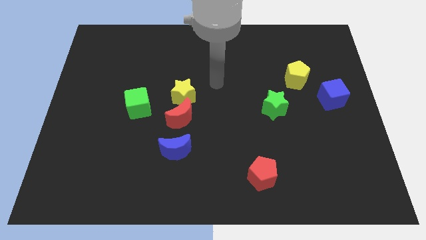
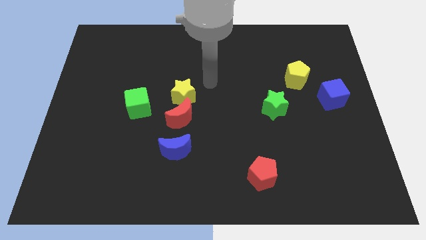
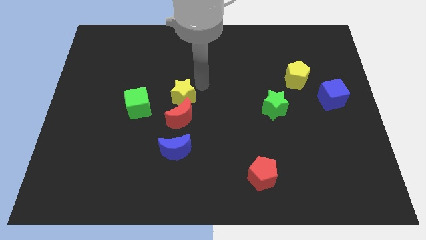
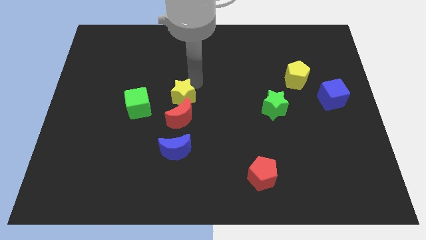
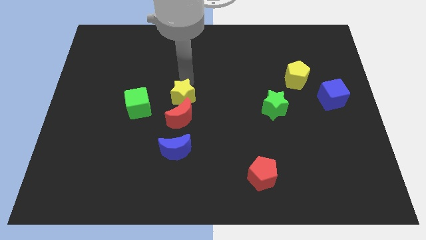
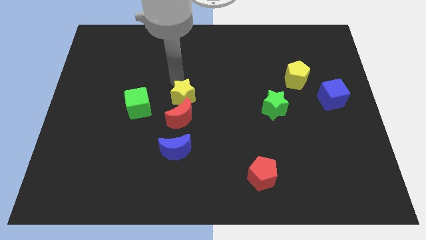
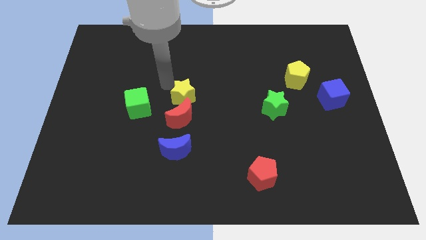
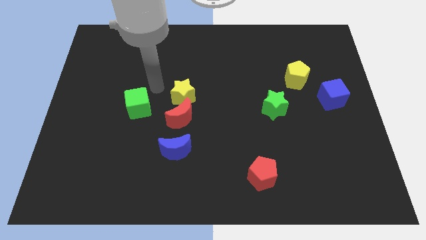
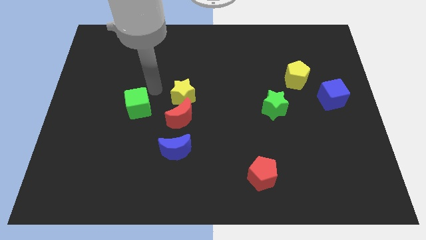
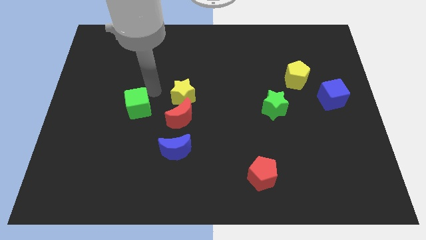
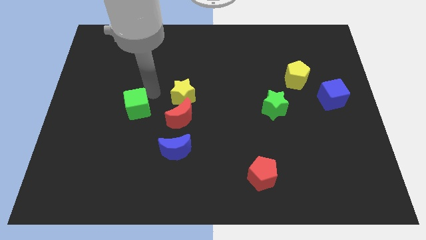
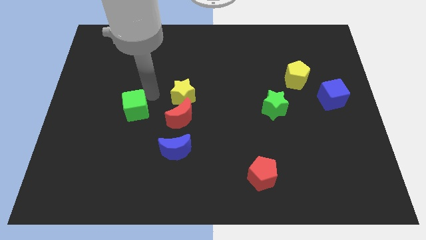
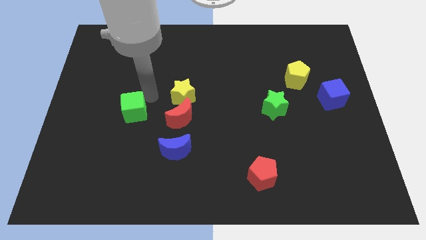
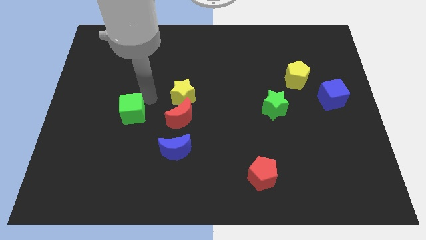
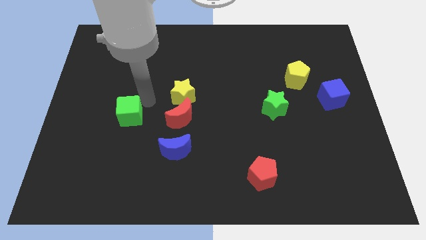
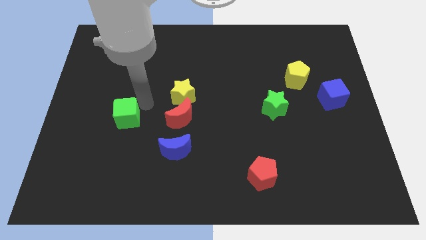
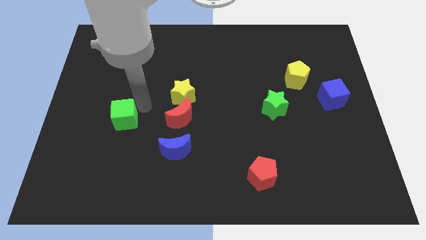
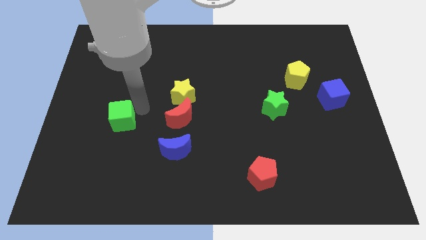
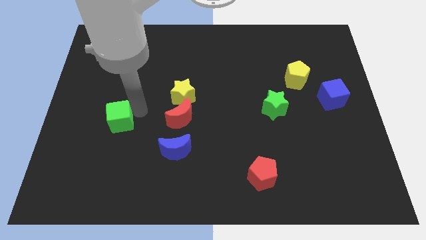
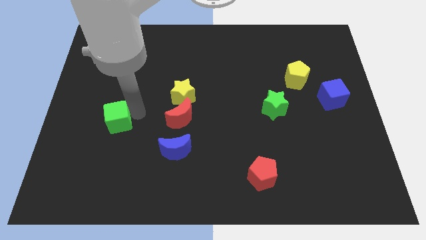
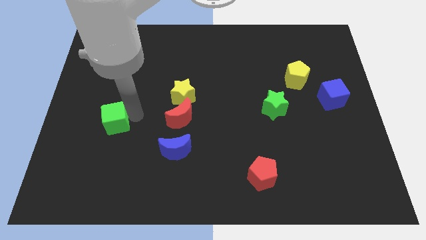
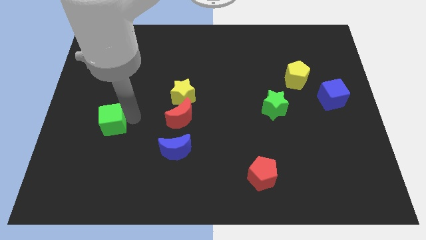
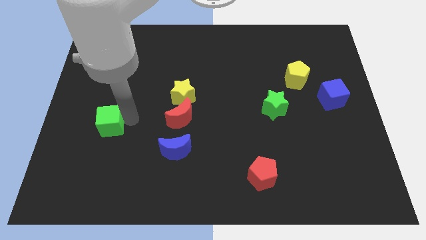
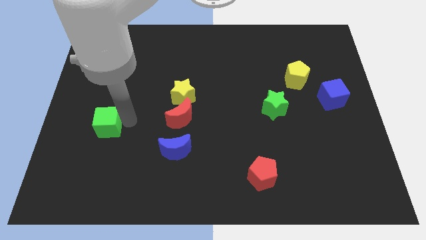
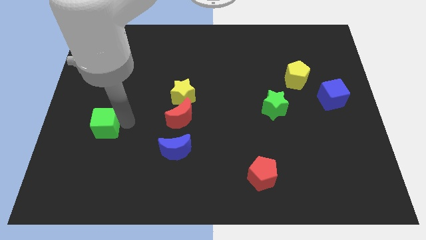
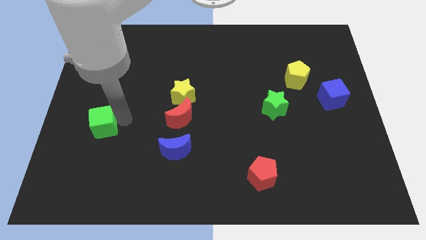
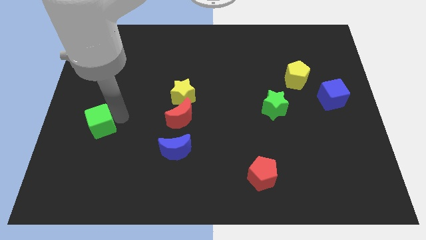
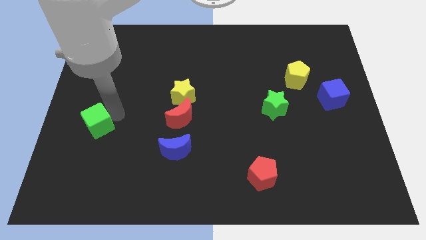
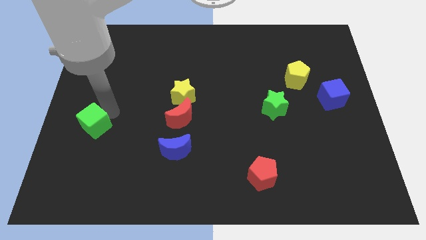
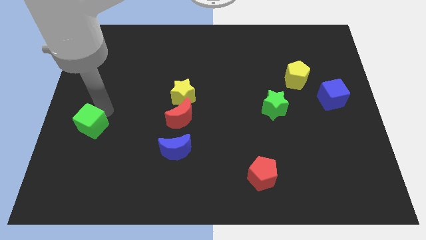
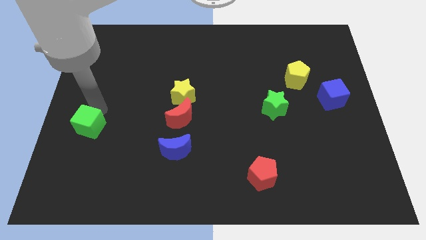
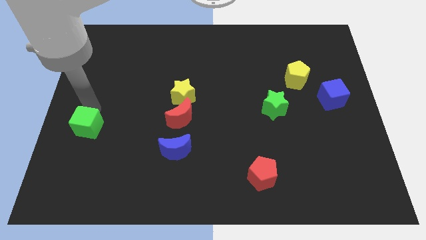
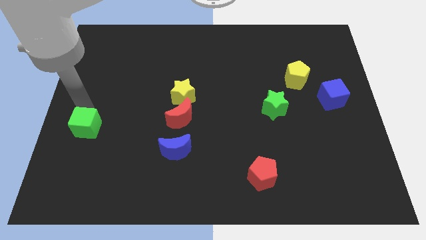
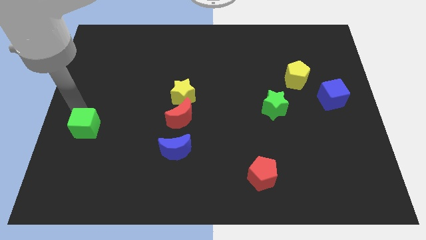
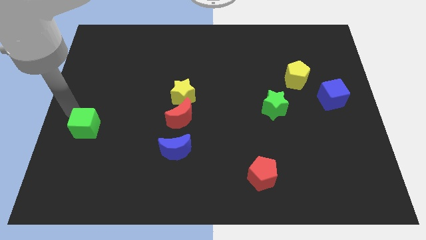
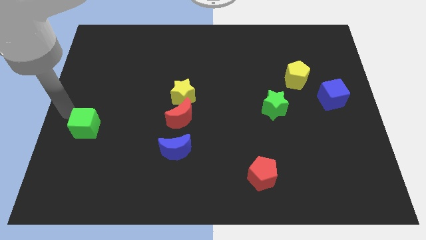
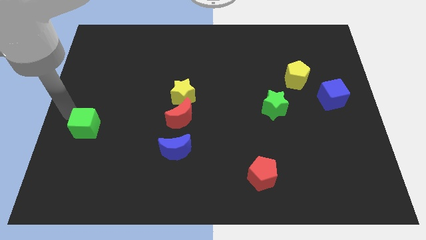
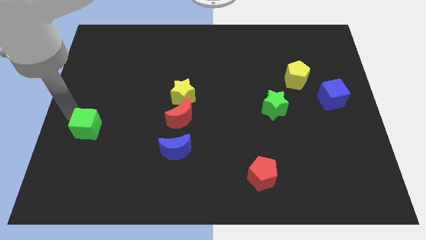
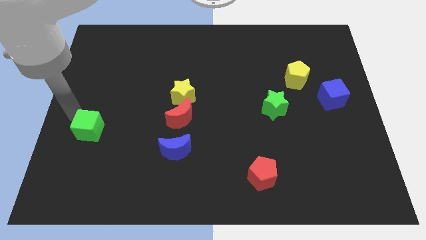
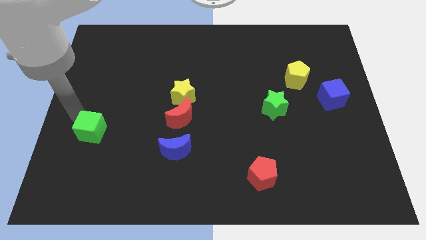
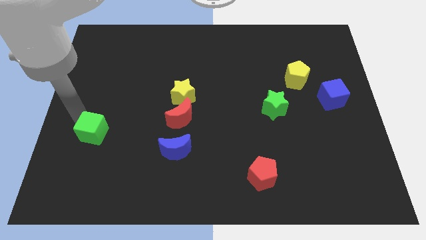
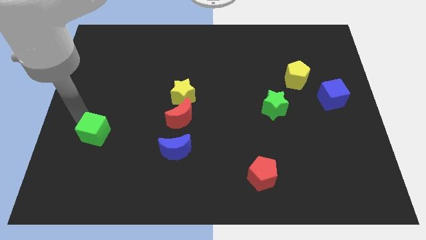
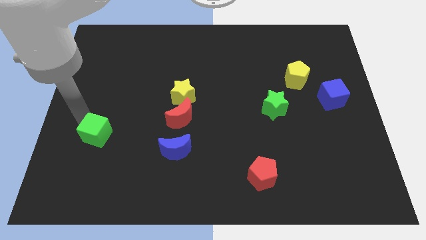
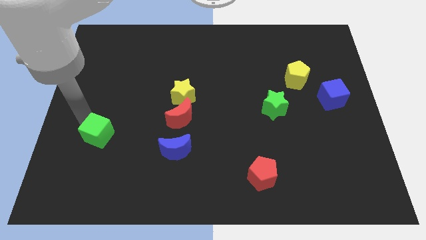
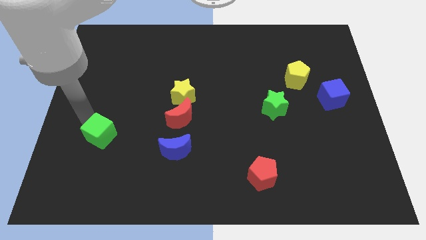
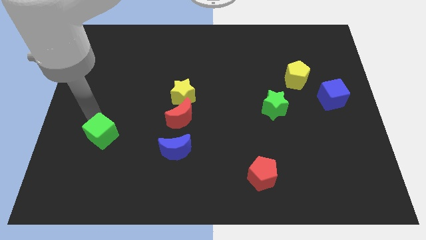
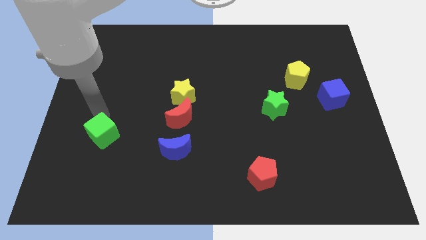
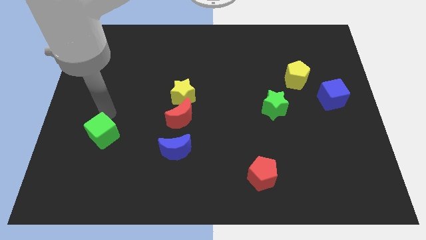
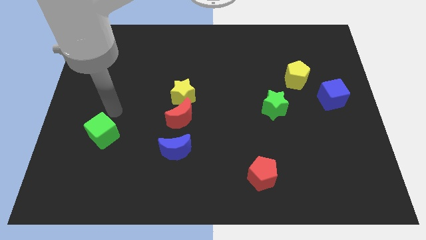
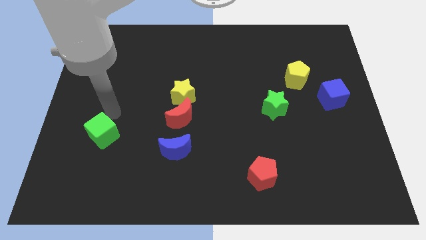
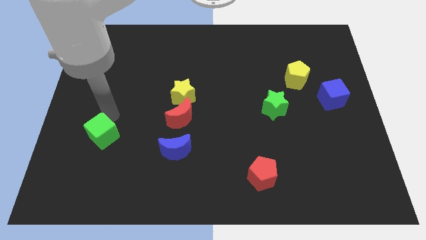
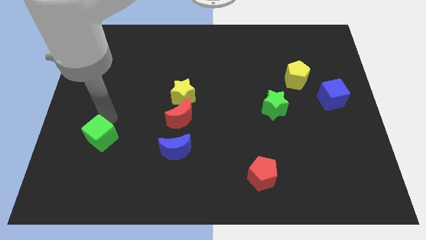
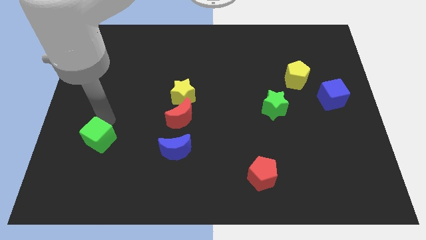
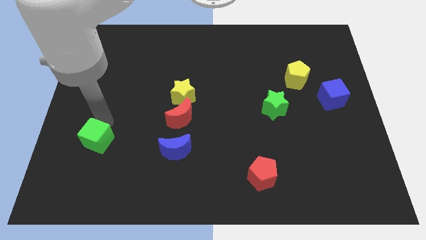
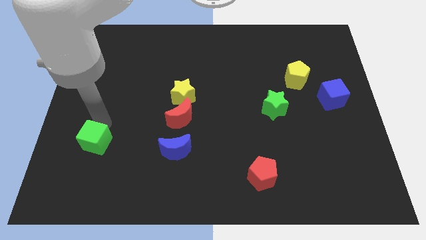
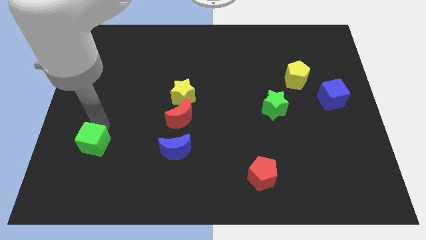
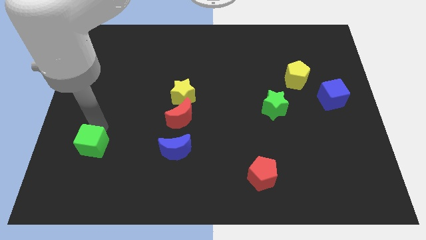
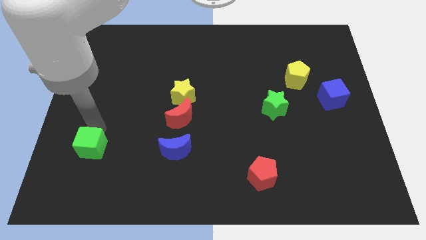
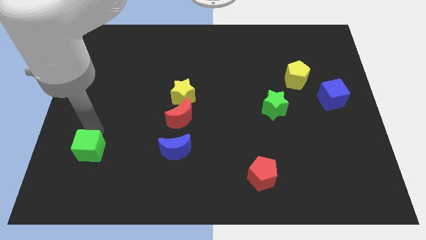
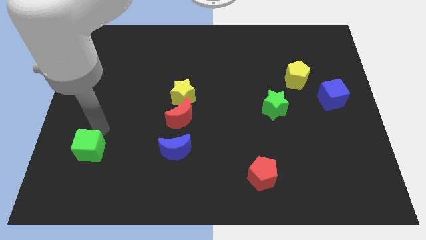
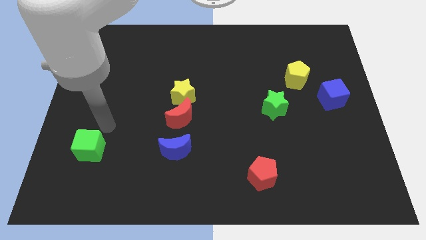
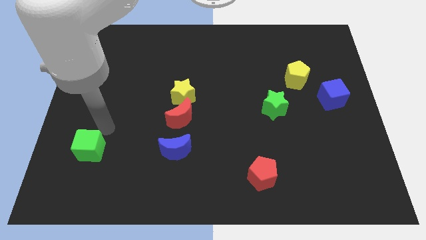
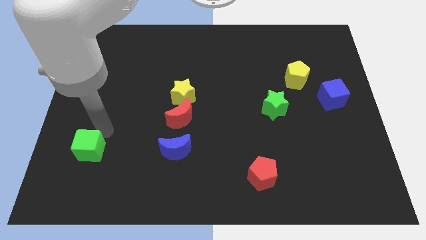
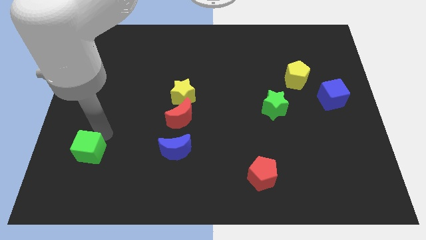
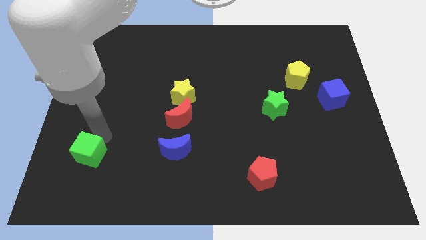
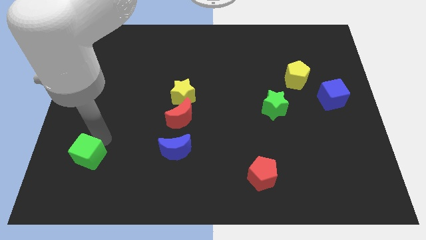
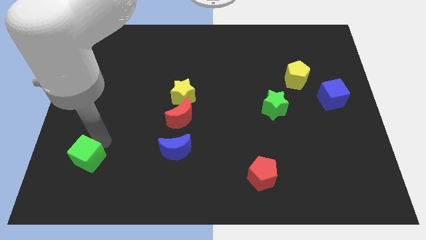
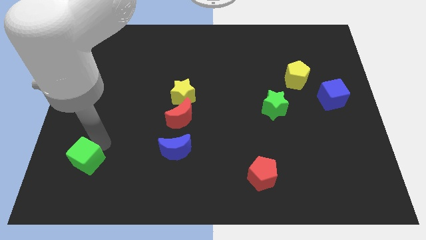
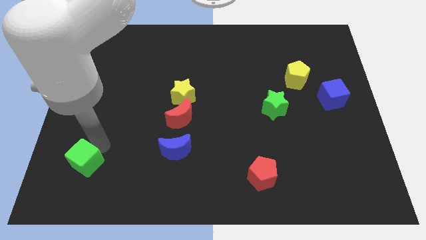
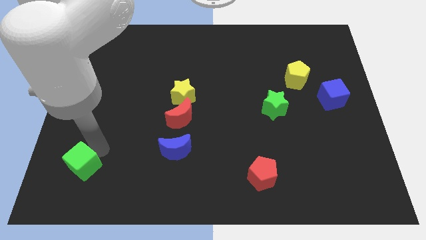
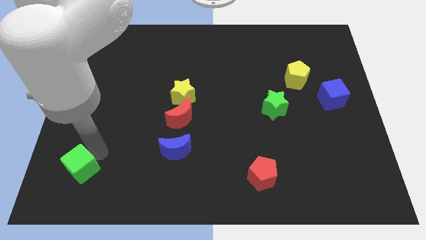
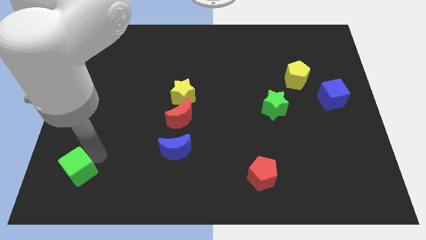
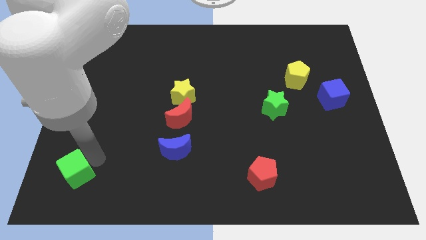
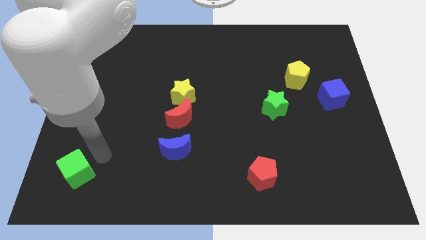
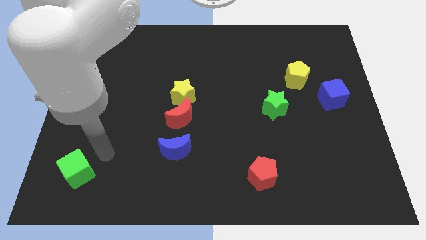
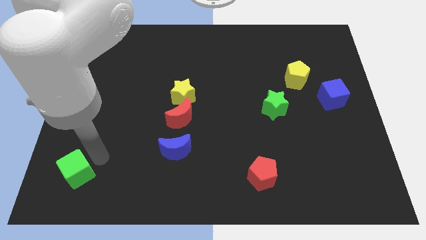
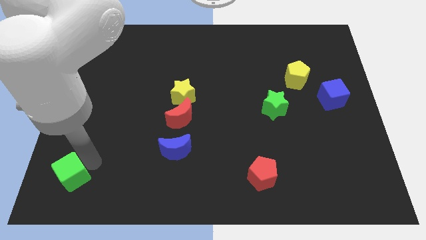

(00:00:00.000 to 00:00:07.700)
push the green cube to the bottom left
